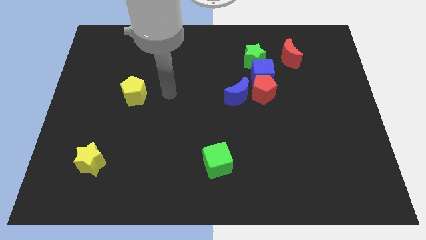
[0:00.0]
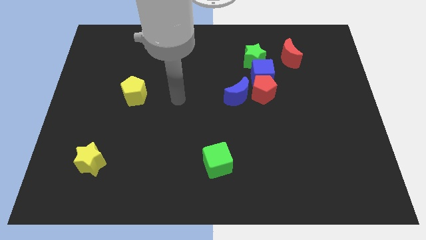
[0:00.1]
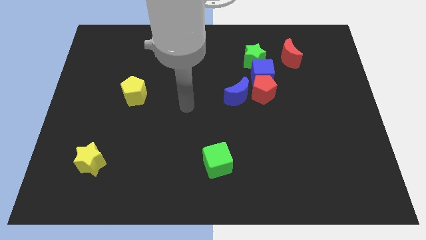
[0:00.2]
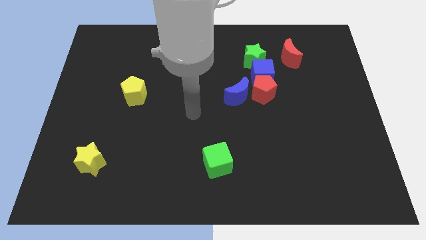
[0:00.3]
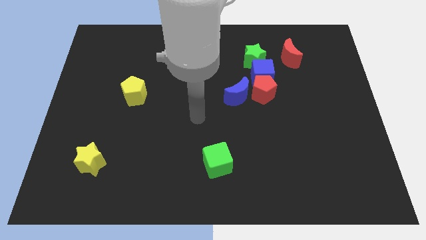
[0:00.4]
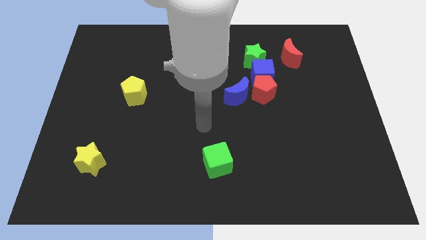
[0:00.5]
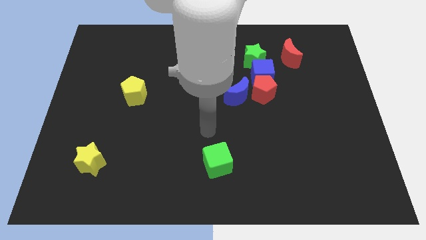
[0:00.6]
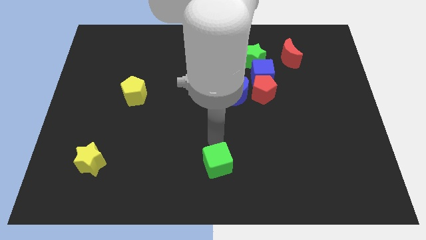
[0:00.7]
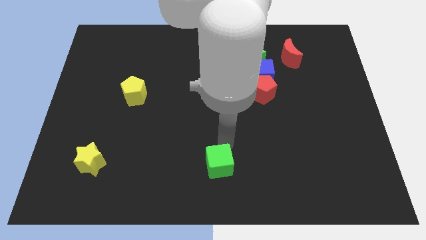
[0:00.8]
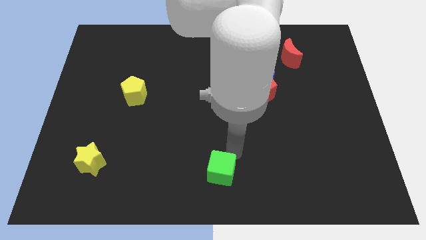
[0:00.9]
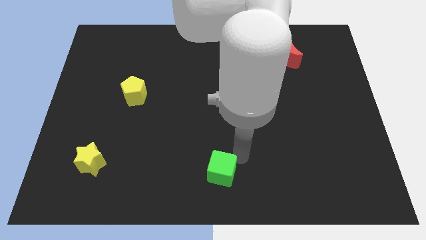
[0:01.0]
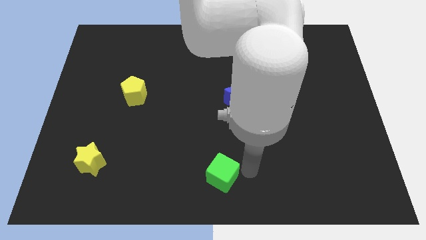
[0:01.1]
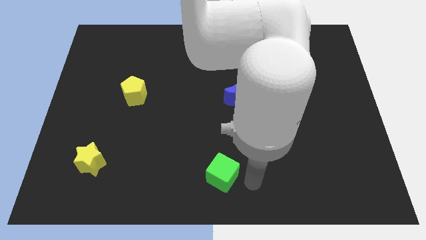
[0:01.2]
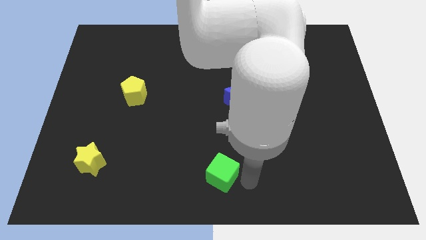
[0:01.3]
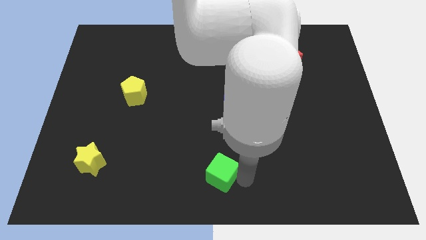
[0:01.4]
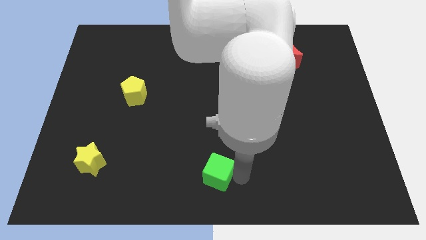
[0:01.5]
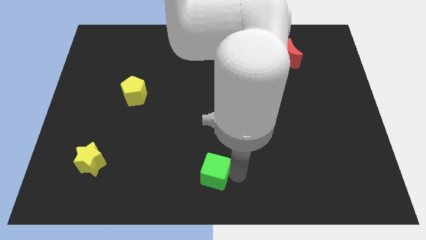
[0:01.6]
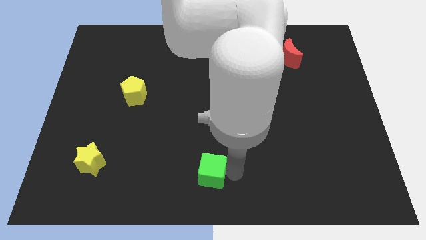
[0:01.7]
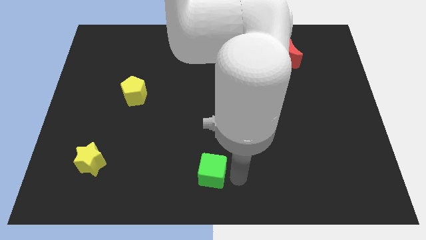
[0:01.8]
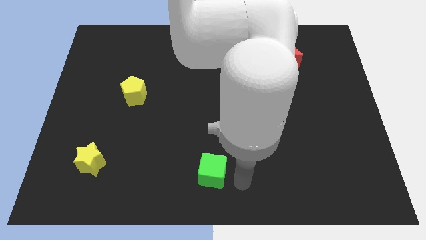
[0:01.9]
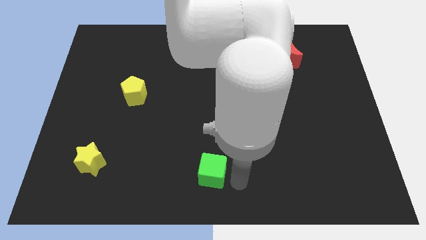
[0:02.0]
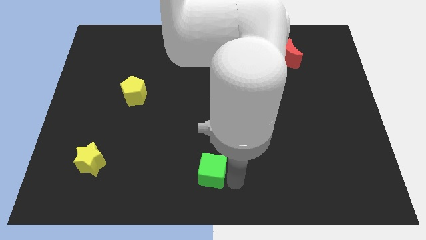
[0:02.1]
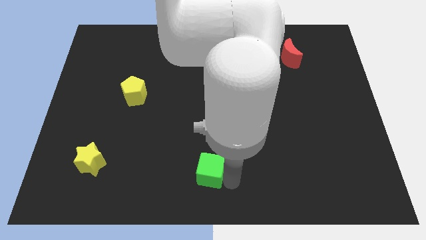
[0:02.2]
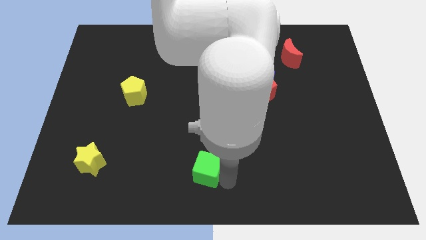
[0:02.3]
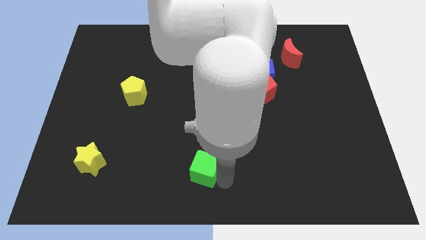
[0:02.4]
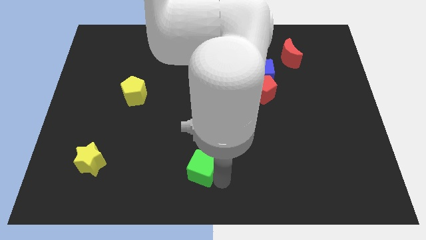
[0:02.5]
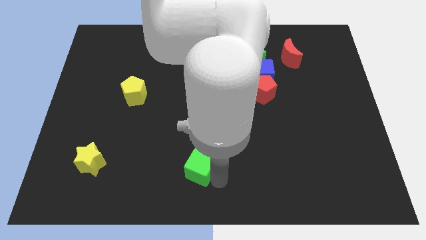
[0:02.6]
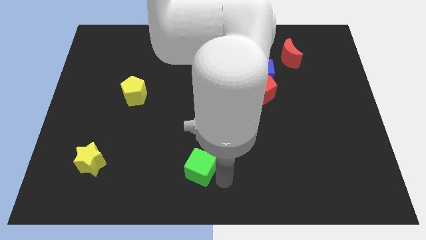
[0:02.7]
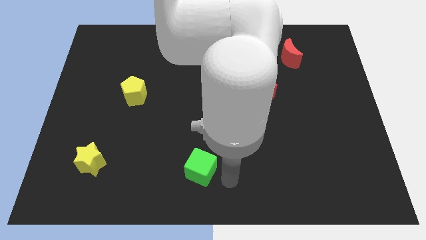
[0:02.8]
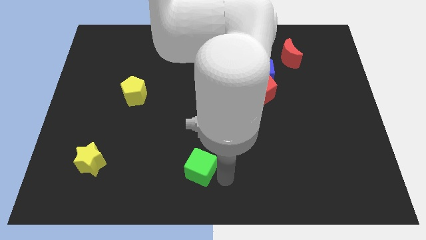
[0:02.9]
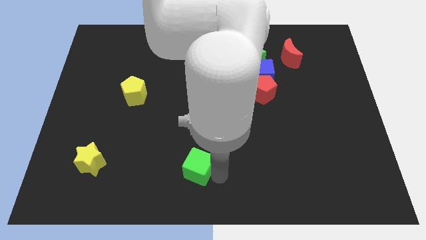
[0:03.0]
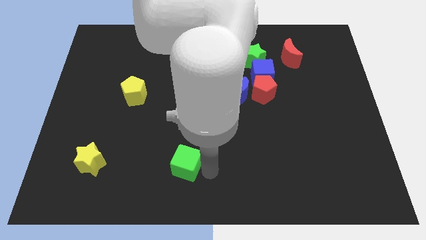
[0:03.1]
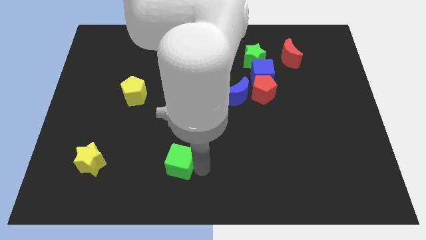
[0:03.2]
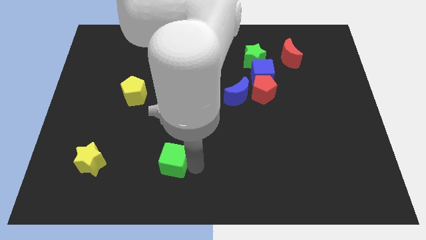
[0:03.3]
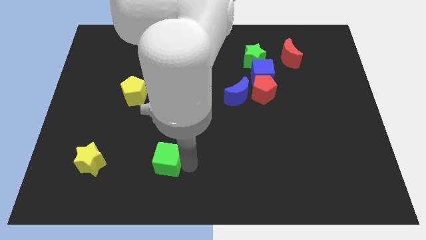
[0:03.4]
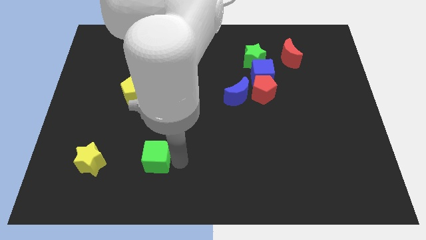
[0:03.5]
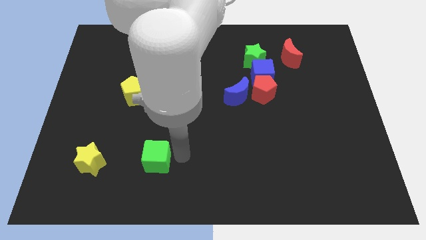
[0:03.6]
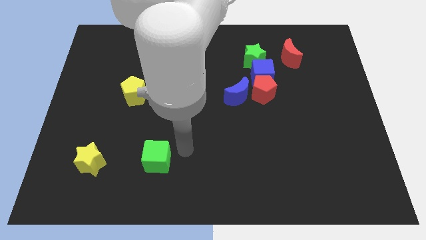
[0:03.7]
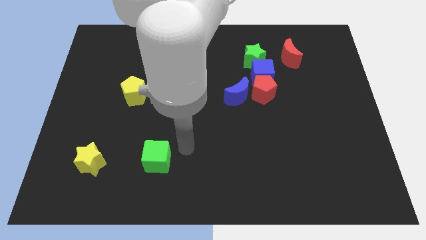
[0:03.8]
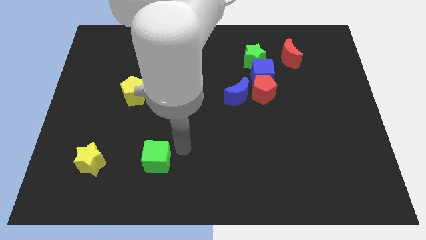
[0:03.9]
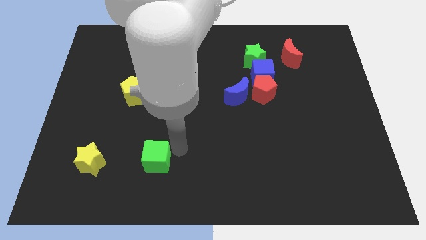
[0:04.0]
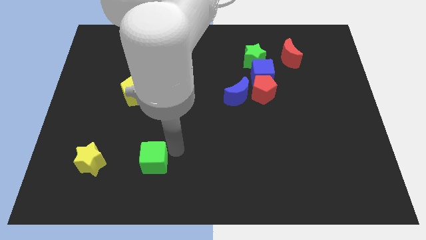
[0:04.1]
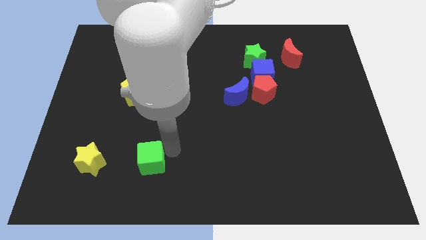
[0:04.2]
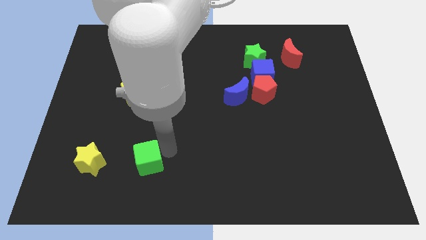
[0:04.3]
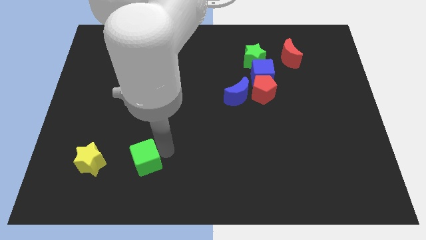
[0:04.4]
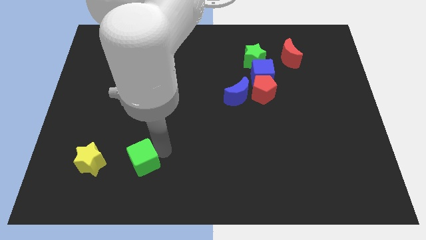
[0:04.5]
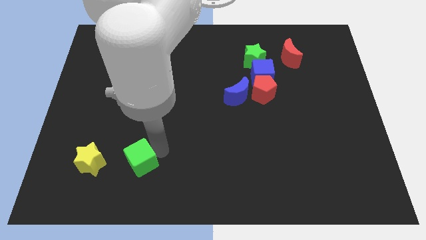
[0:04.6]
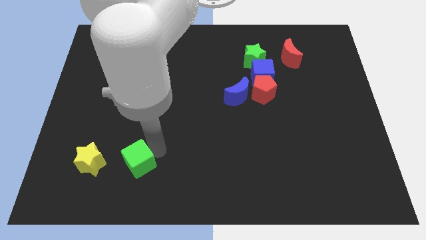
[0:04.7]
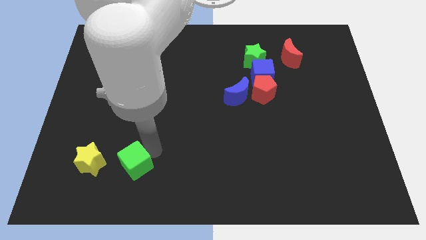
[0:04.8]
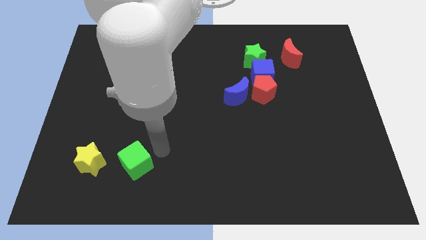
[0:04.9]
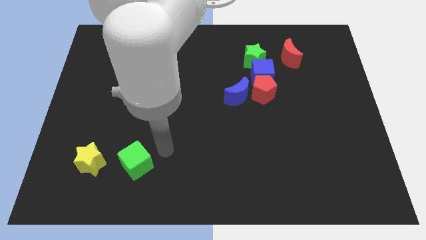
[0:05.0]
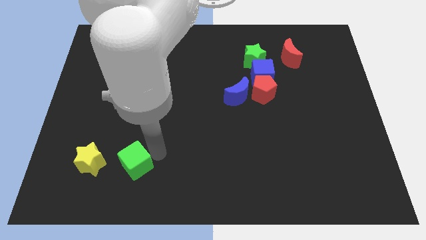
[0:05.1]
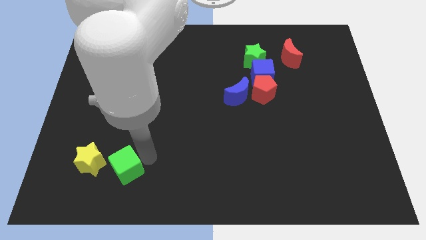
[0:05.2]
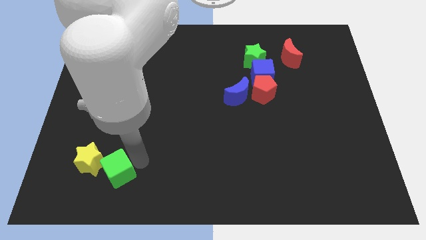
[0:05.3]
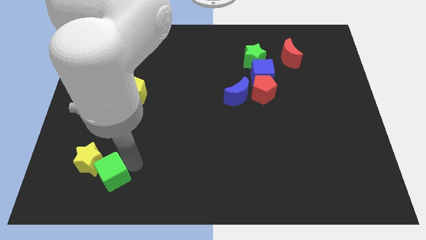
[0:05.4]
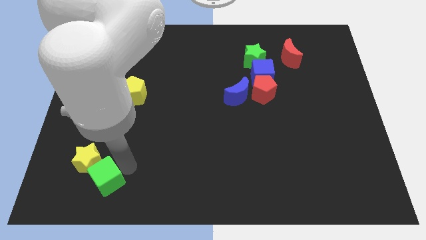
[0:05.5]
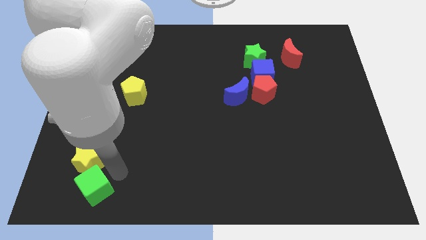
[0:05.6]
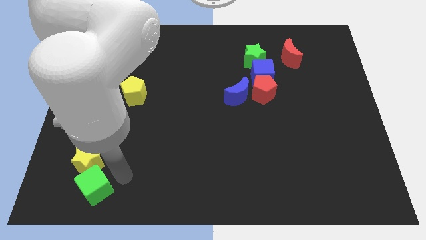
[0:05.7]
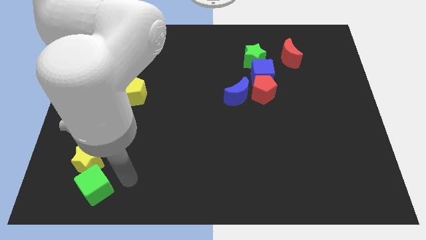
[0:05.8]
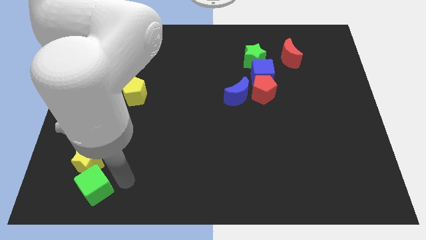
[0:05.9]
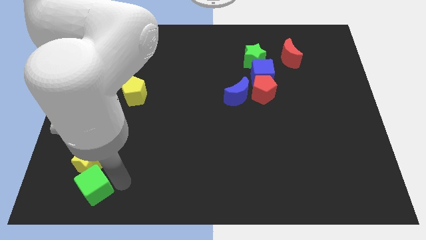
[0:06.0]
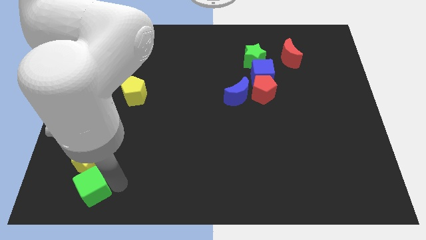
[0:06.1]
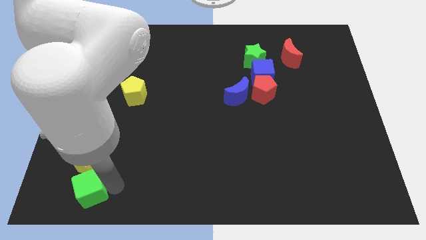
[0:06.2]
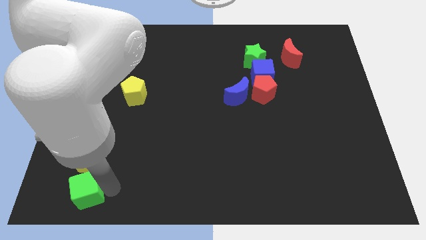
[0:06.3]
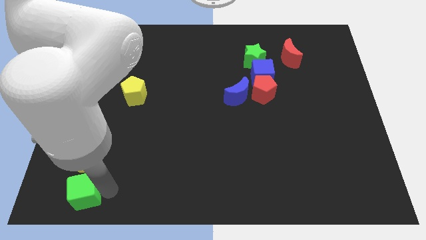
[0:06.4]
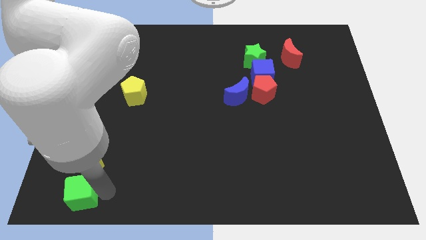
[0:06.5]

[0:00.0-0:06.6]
put the green cube to the bottom left
